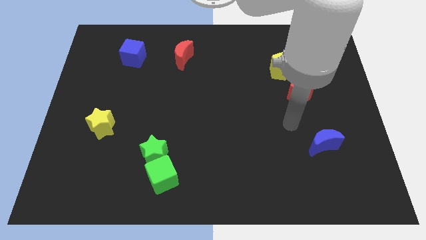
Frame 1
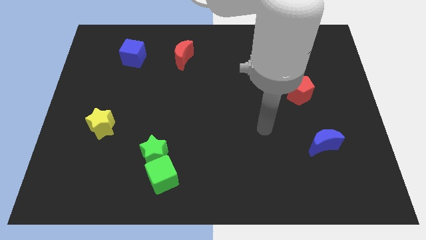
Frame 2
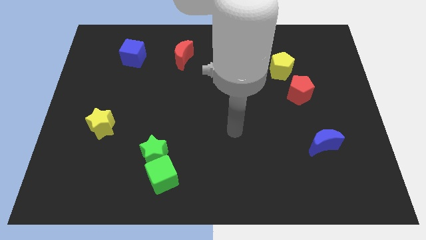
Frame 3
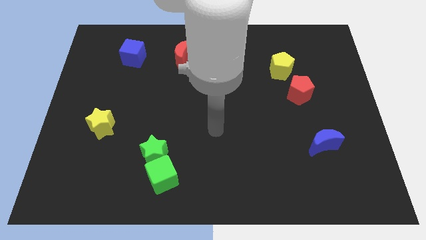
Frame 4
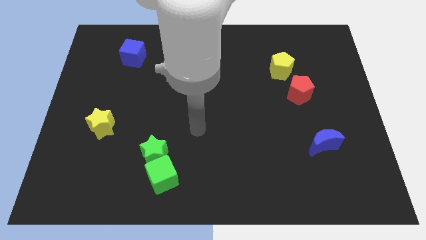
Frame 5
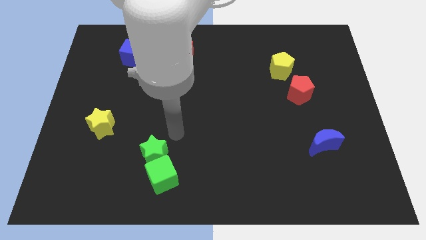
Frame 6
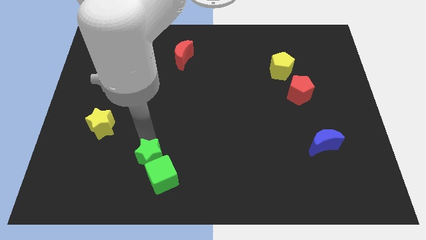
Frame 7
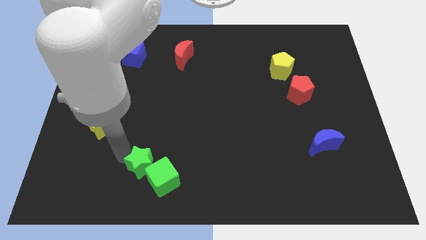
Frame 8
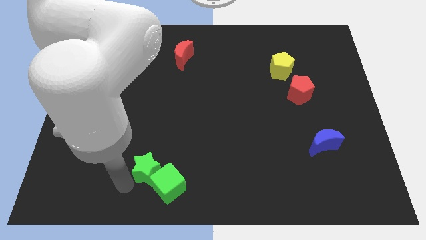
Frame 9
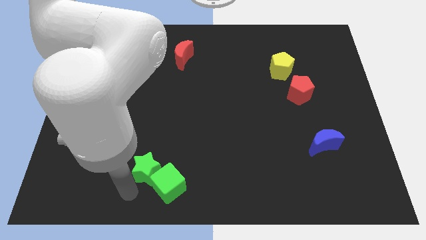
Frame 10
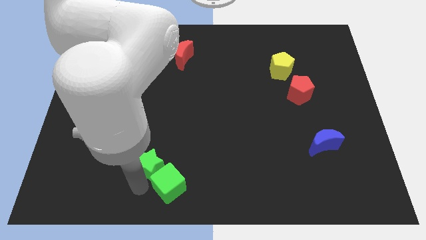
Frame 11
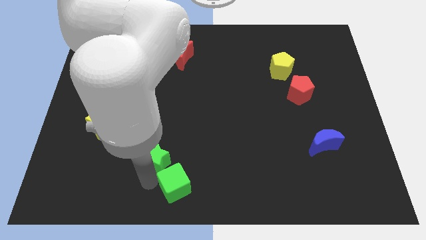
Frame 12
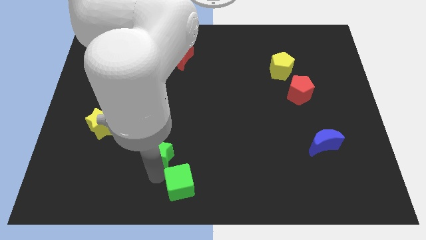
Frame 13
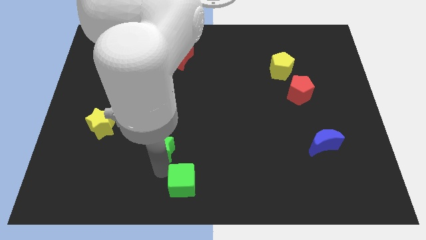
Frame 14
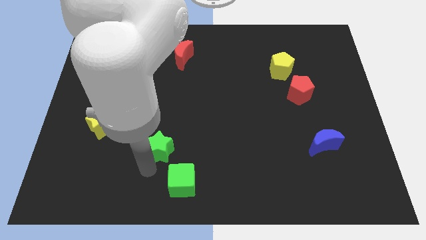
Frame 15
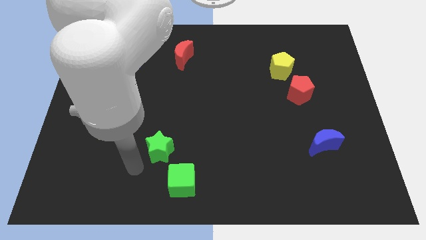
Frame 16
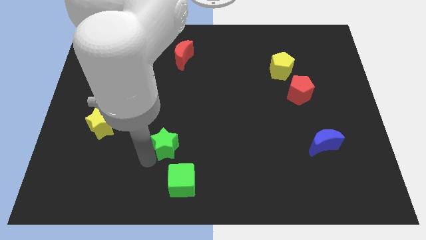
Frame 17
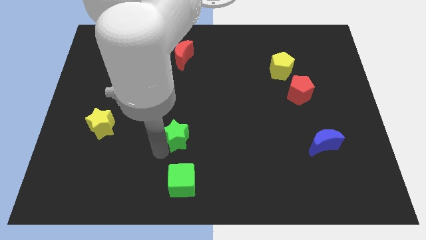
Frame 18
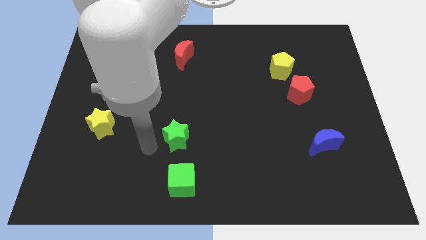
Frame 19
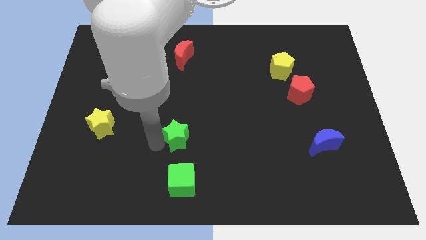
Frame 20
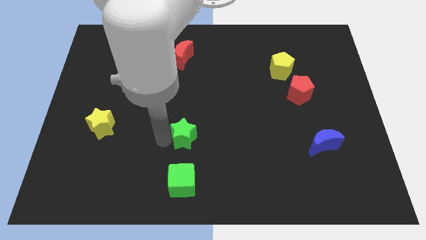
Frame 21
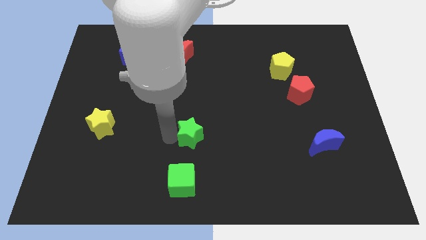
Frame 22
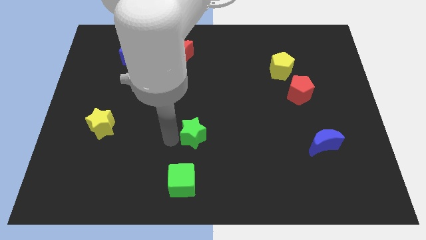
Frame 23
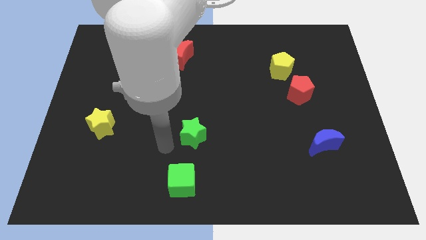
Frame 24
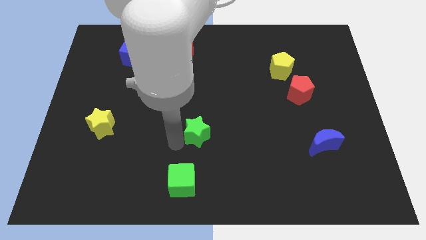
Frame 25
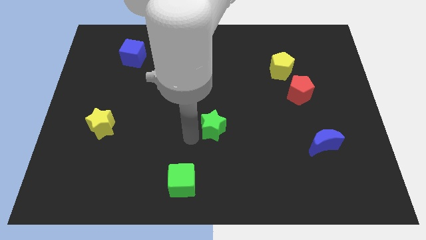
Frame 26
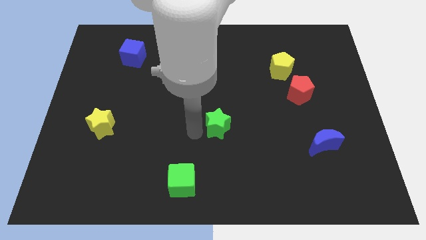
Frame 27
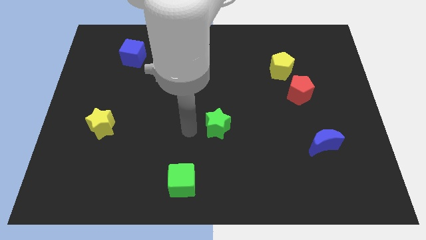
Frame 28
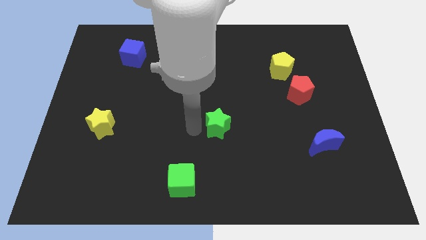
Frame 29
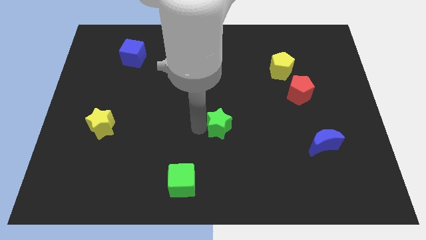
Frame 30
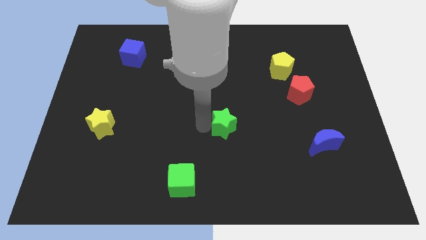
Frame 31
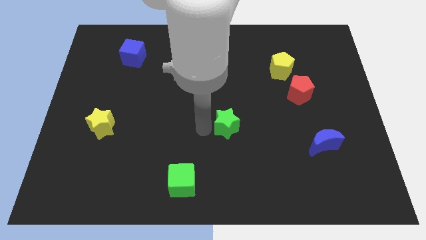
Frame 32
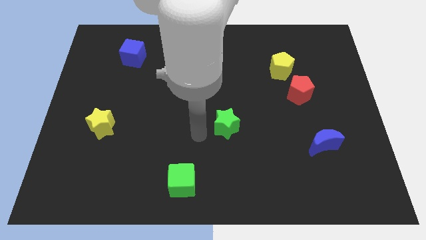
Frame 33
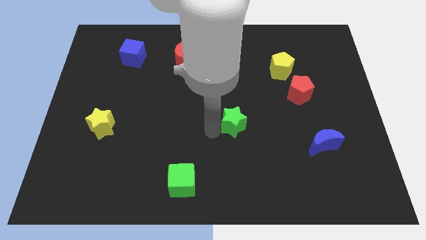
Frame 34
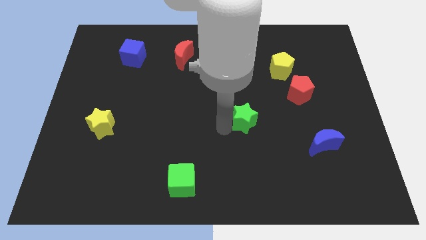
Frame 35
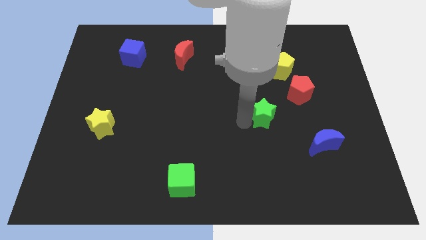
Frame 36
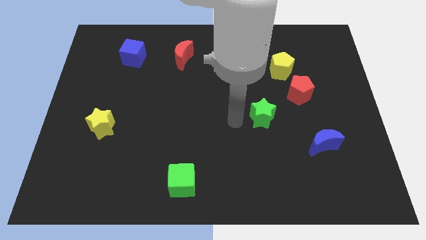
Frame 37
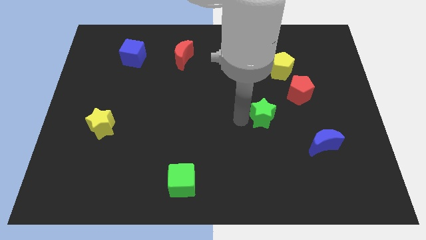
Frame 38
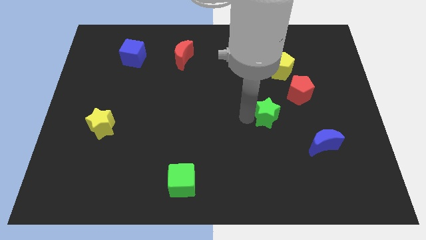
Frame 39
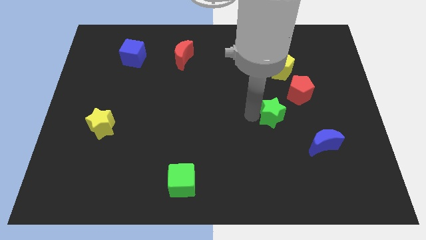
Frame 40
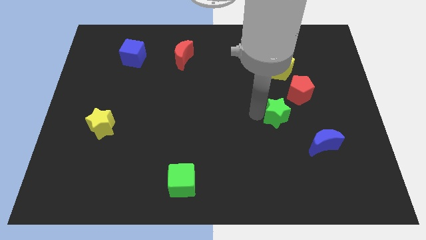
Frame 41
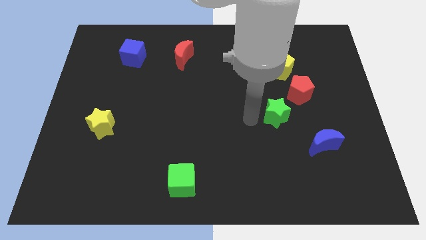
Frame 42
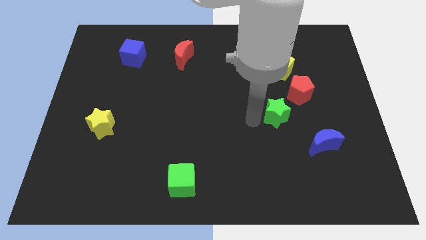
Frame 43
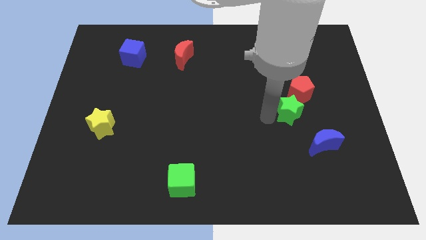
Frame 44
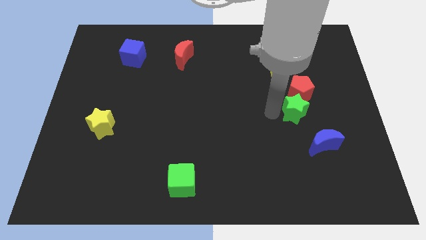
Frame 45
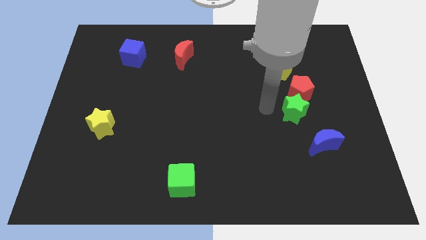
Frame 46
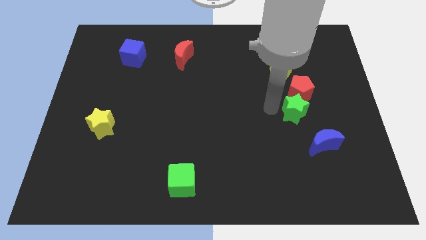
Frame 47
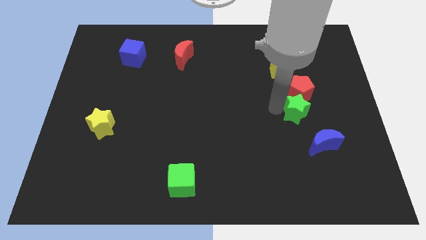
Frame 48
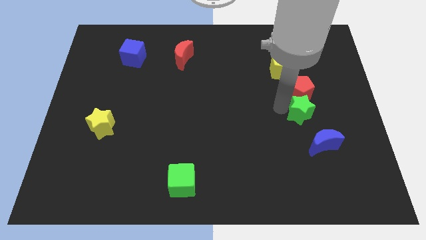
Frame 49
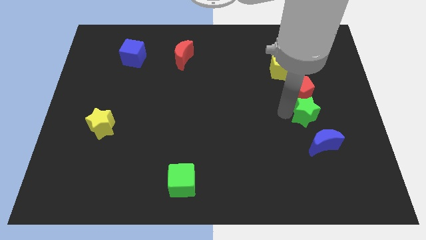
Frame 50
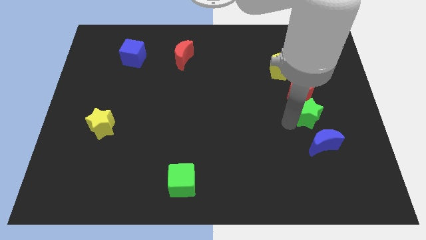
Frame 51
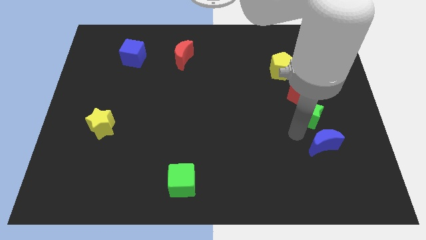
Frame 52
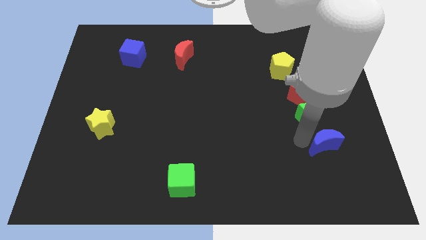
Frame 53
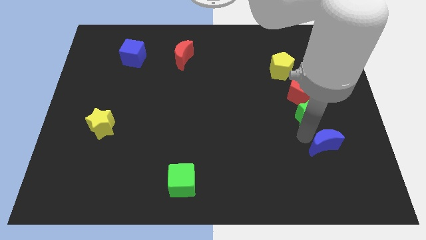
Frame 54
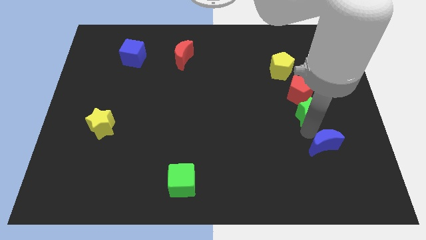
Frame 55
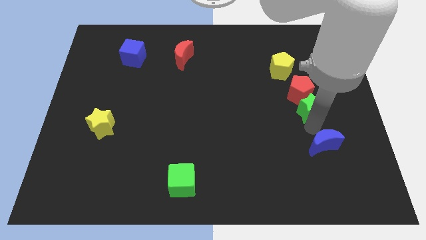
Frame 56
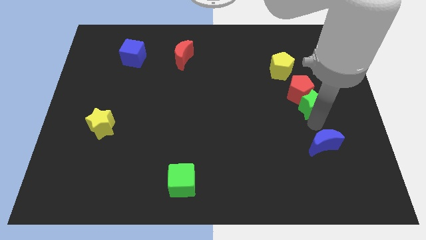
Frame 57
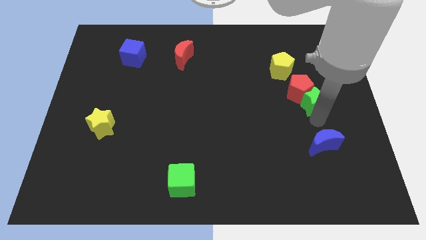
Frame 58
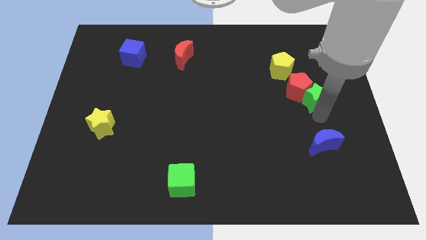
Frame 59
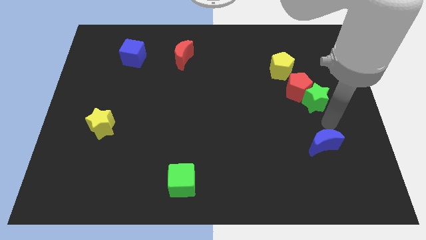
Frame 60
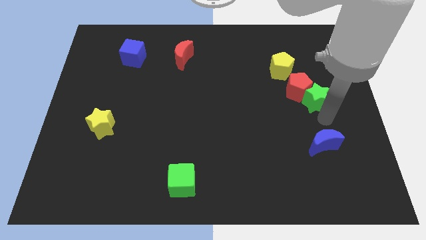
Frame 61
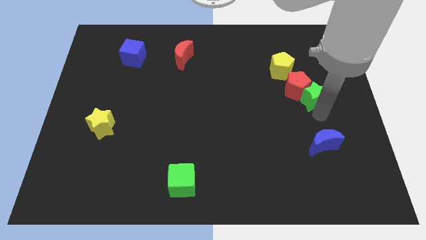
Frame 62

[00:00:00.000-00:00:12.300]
move the green star to the bottom right side of the yellow pentagon
